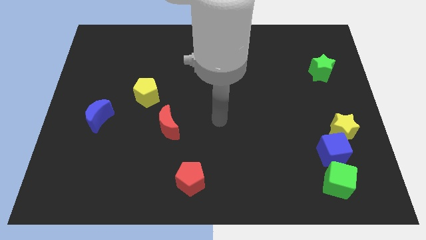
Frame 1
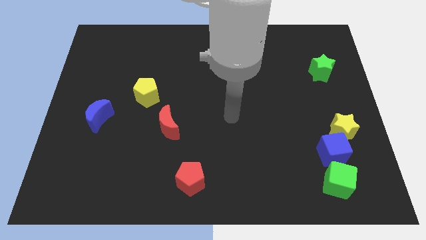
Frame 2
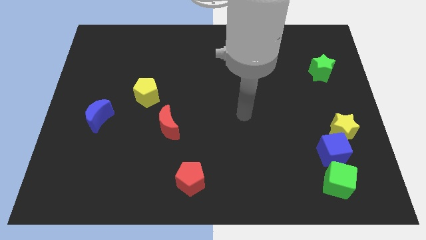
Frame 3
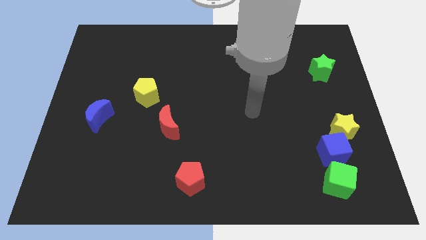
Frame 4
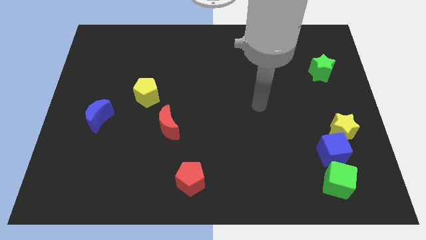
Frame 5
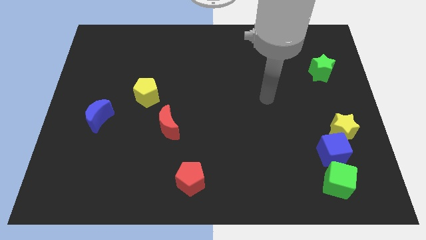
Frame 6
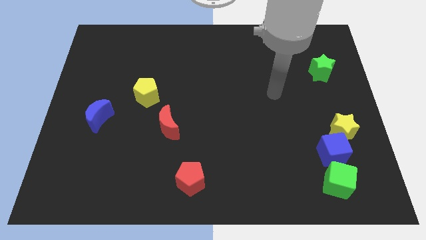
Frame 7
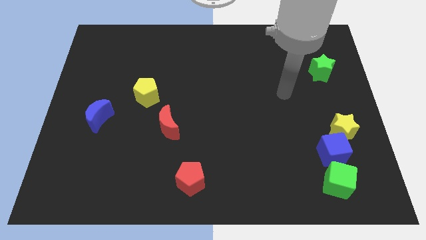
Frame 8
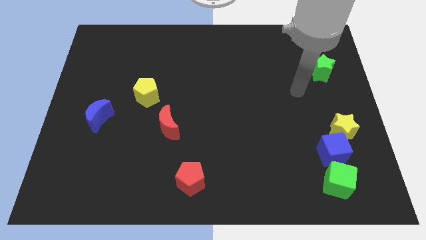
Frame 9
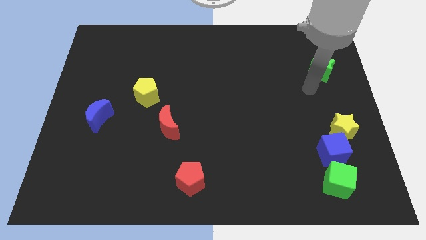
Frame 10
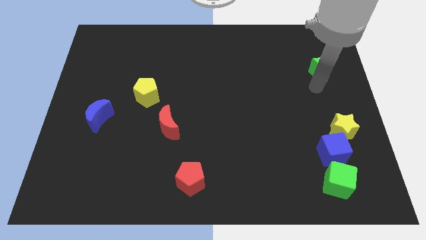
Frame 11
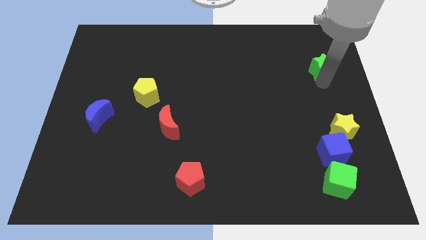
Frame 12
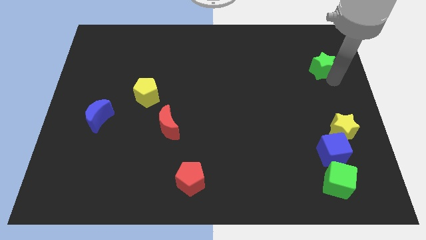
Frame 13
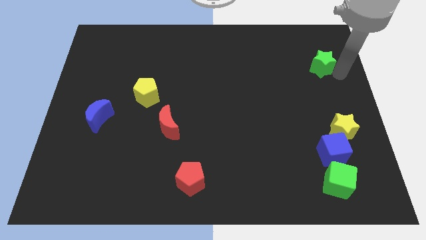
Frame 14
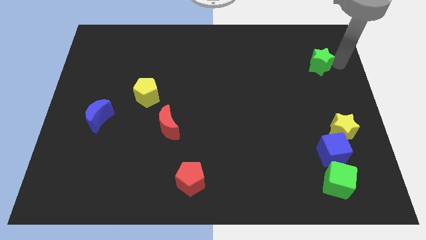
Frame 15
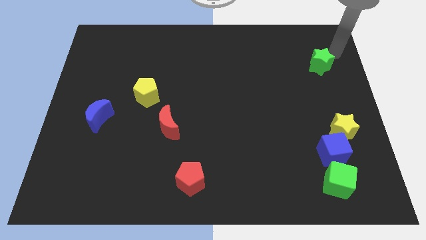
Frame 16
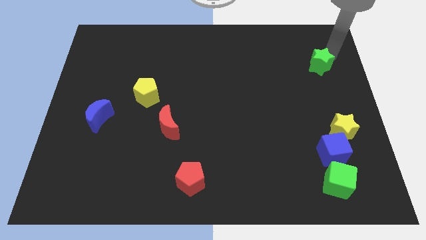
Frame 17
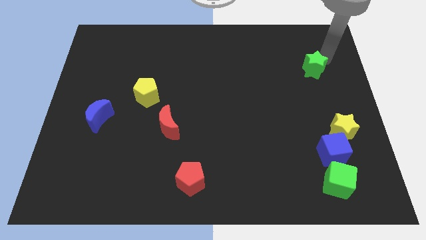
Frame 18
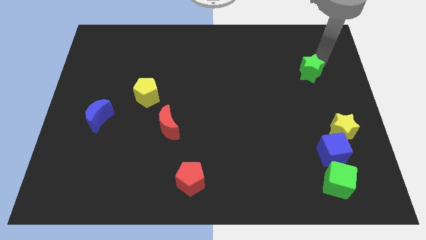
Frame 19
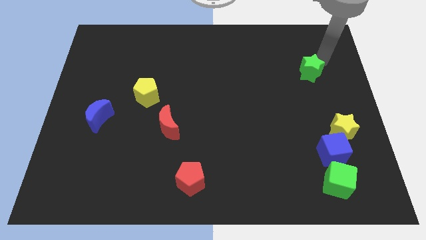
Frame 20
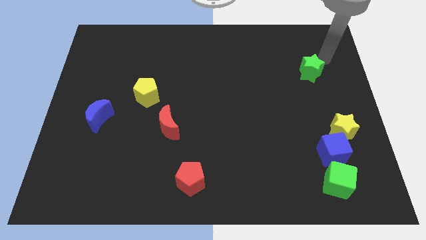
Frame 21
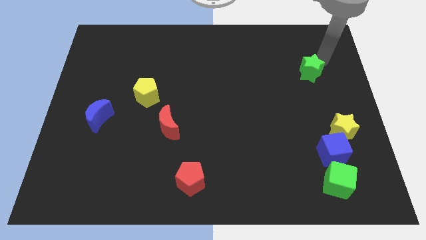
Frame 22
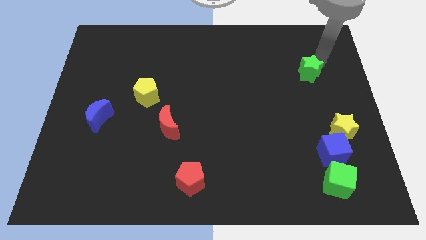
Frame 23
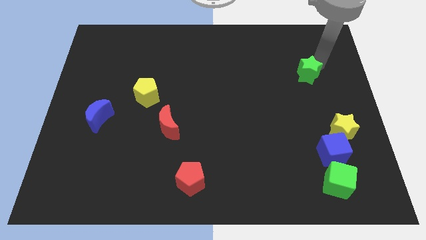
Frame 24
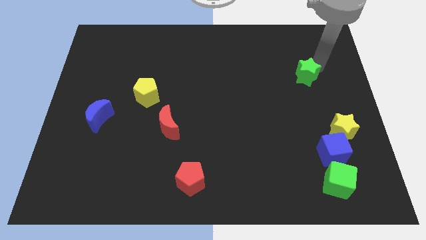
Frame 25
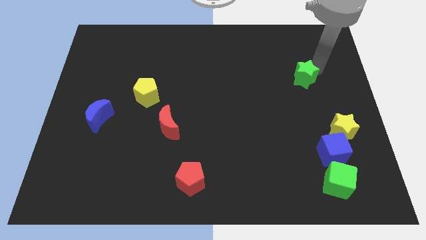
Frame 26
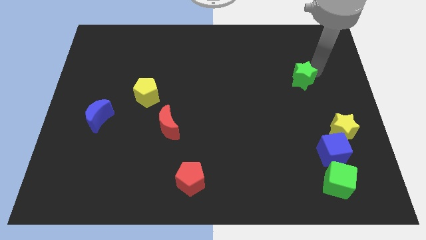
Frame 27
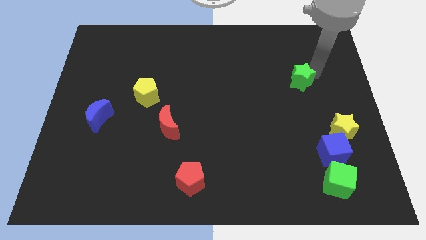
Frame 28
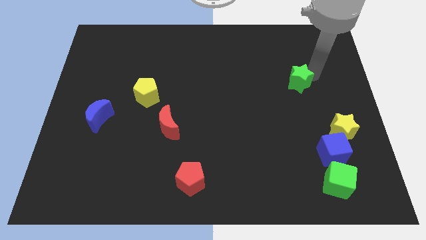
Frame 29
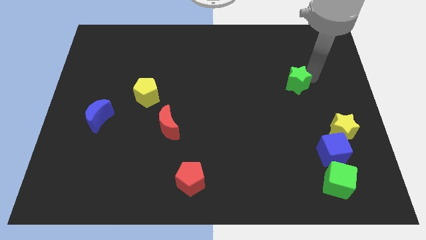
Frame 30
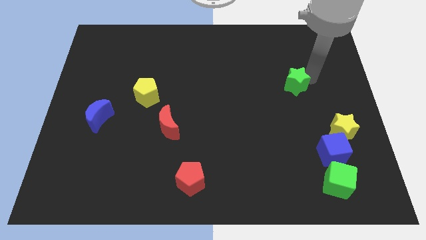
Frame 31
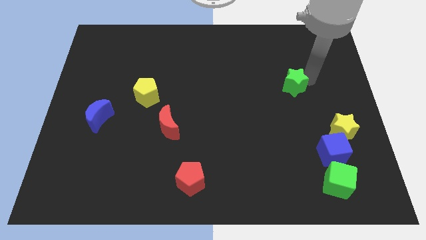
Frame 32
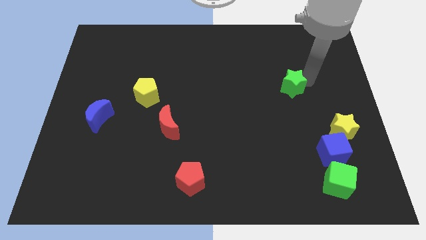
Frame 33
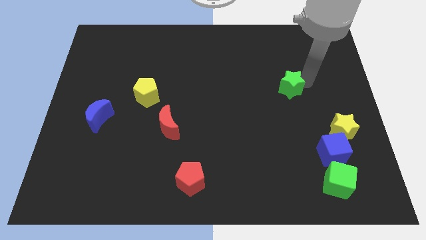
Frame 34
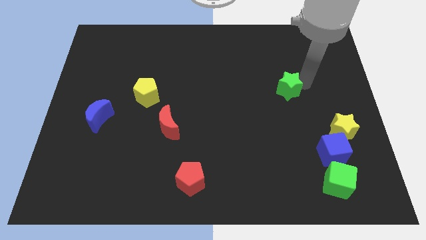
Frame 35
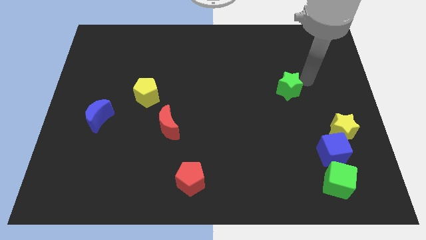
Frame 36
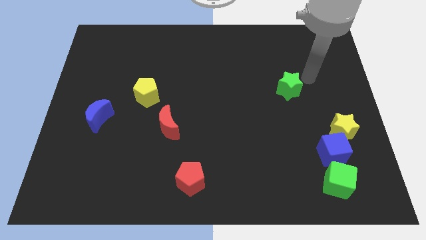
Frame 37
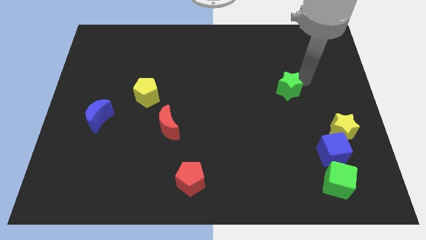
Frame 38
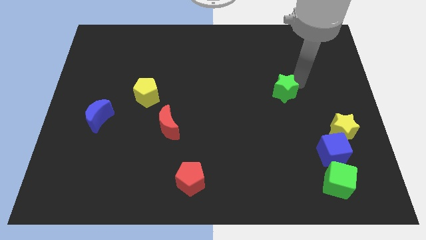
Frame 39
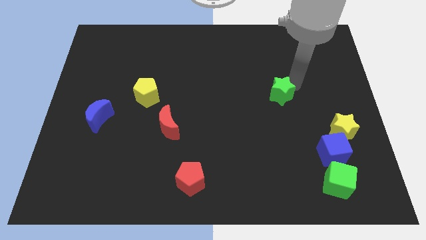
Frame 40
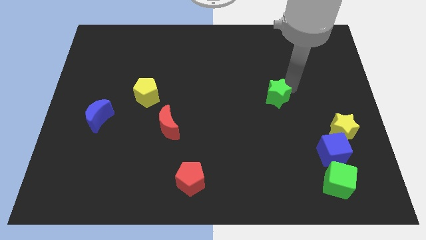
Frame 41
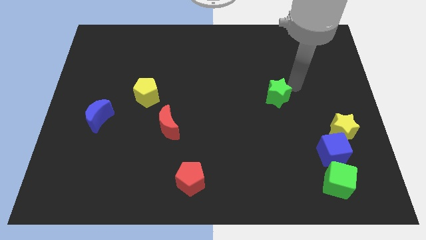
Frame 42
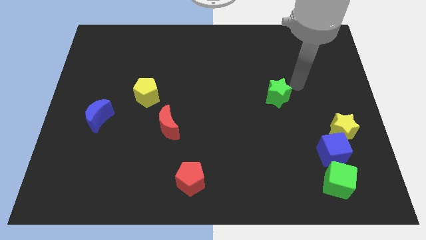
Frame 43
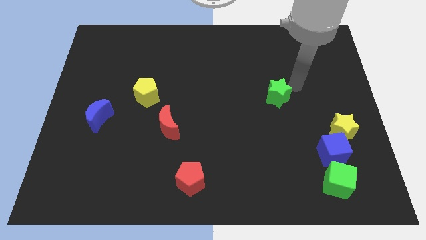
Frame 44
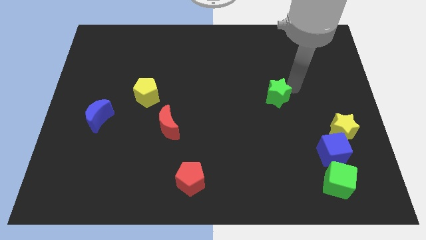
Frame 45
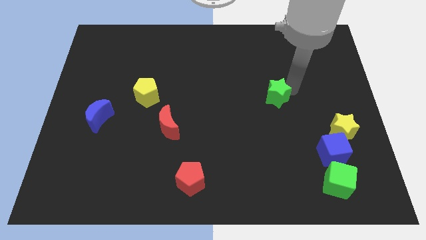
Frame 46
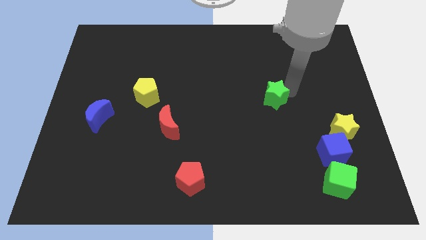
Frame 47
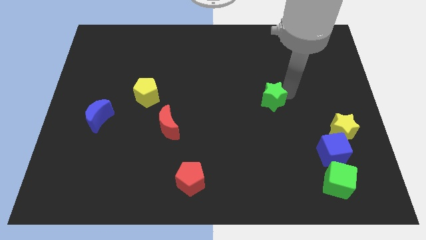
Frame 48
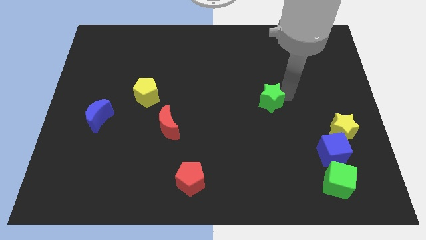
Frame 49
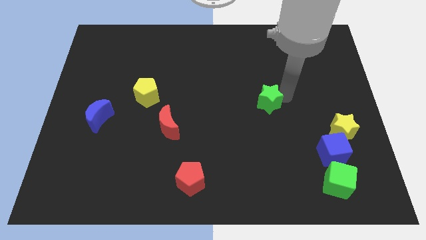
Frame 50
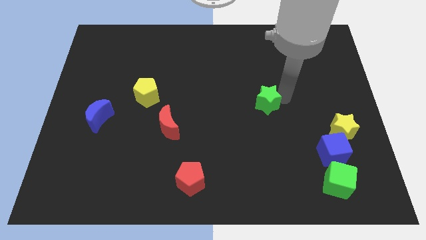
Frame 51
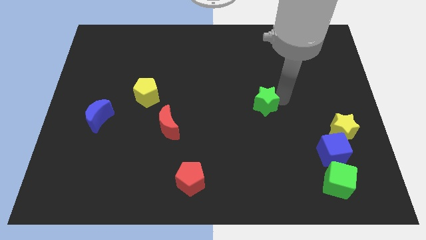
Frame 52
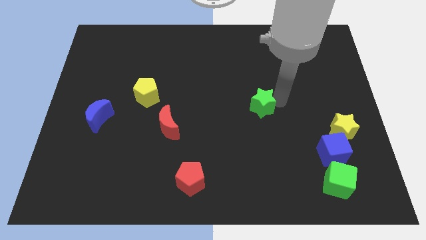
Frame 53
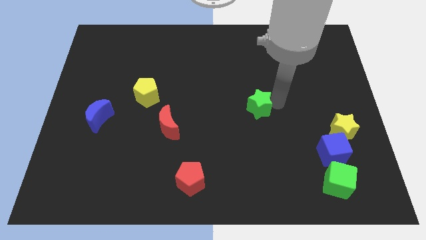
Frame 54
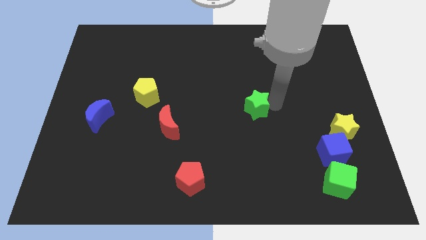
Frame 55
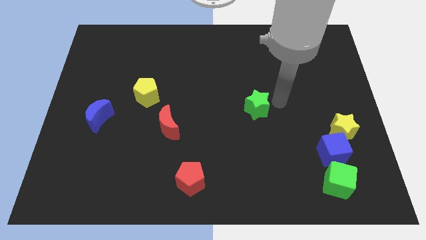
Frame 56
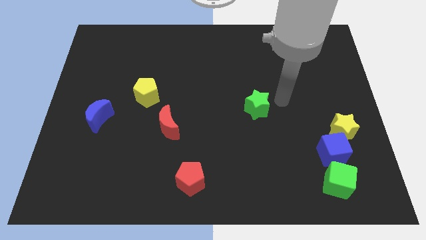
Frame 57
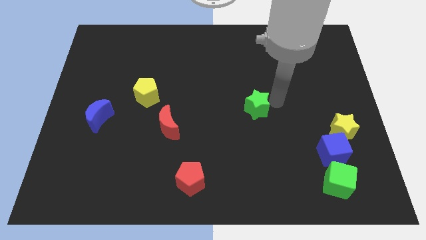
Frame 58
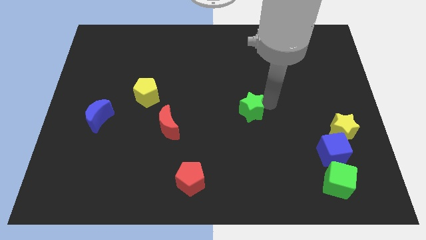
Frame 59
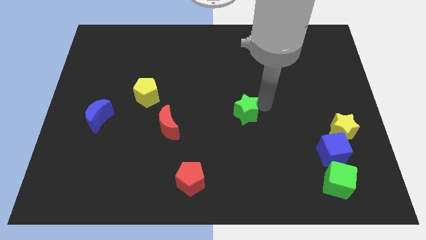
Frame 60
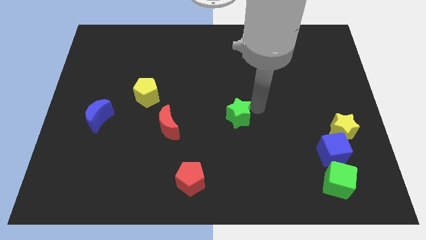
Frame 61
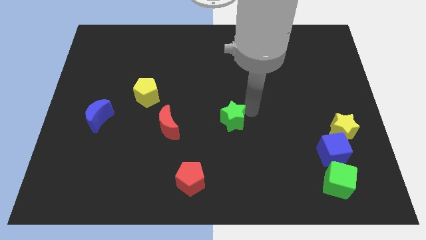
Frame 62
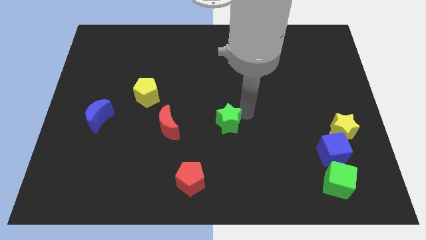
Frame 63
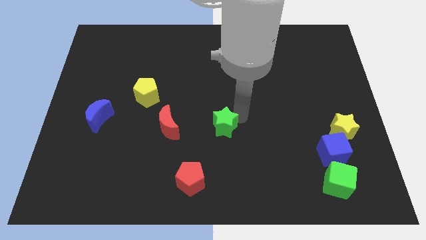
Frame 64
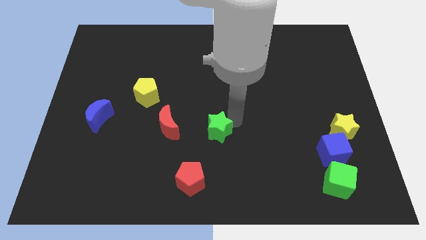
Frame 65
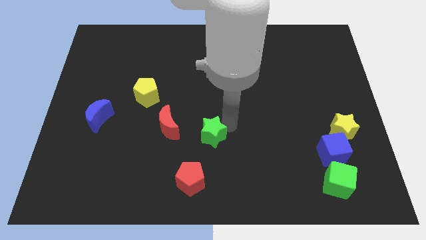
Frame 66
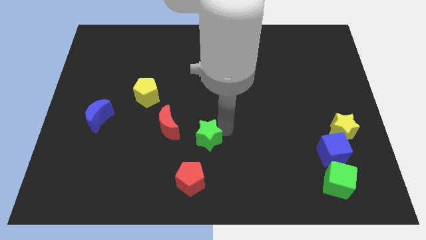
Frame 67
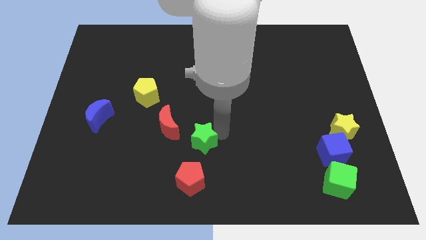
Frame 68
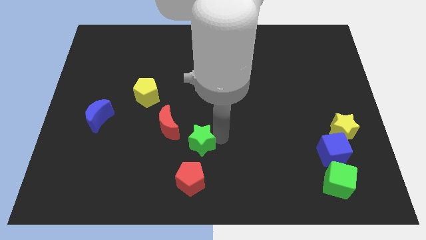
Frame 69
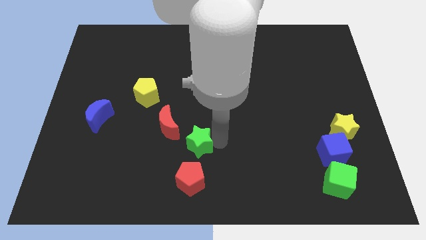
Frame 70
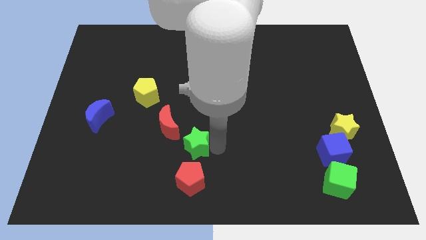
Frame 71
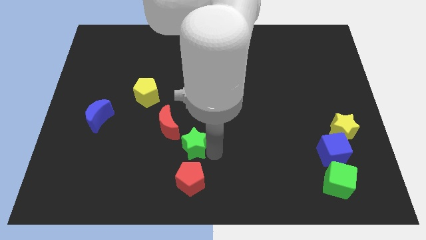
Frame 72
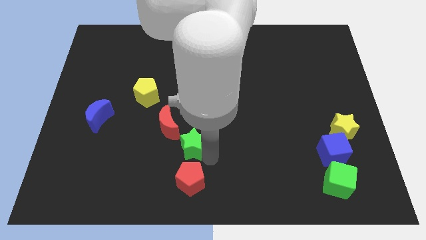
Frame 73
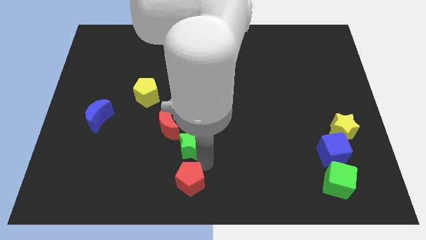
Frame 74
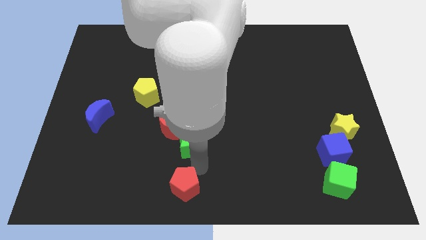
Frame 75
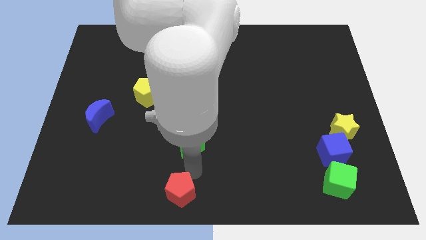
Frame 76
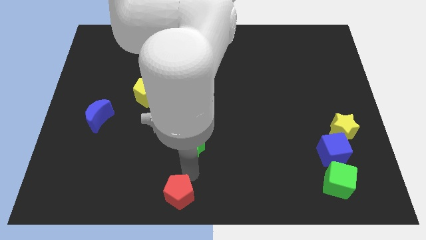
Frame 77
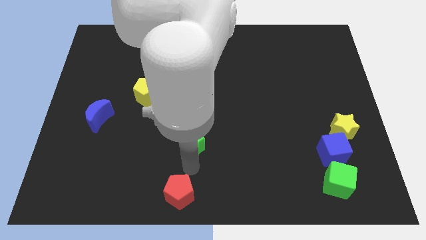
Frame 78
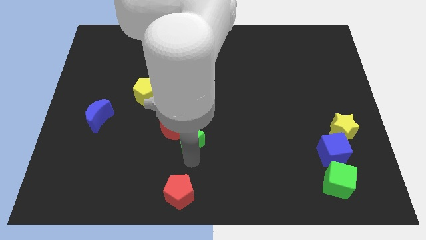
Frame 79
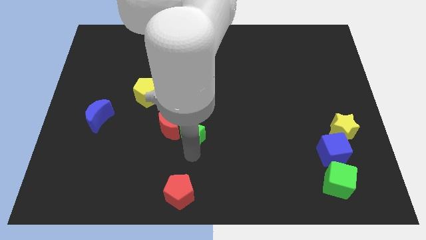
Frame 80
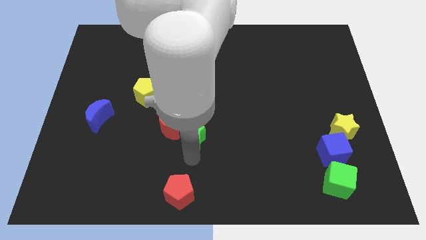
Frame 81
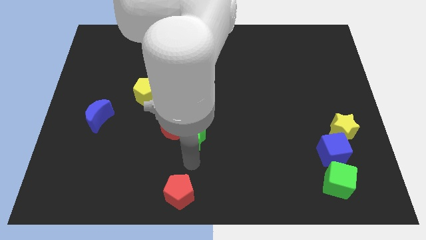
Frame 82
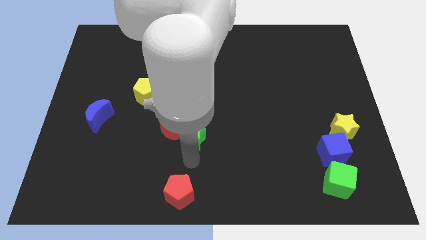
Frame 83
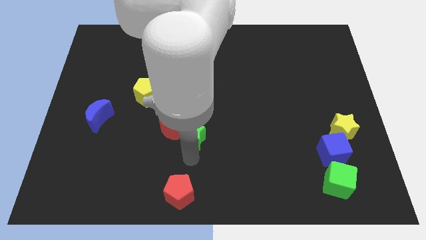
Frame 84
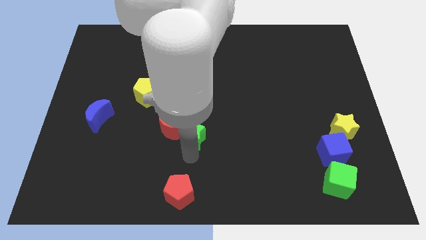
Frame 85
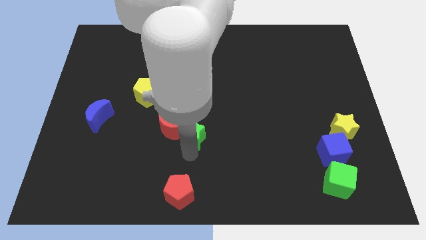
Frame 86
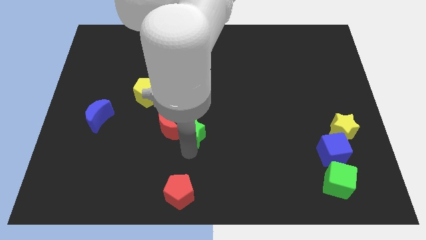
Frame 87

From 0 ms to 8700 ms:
push the green star close to the red moon
